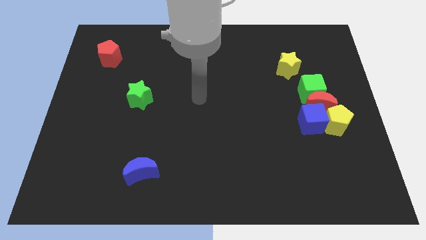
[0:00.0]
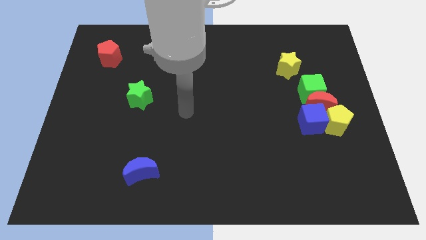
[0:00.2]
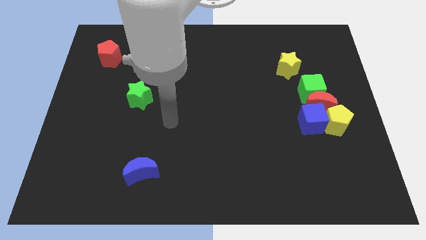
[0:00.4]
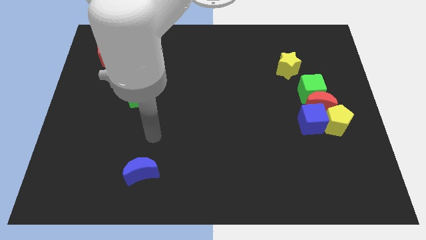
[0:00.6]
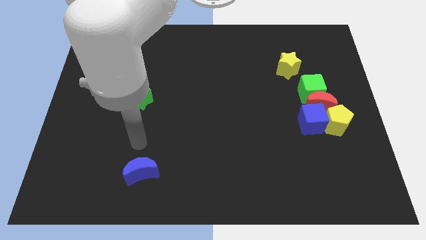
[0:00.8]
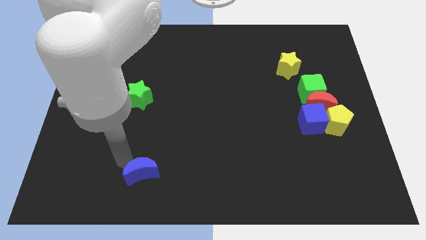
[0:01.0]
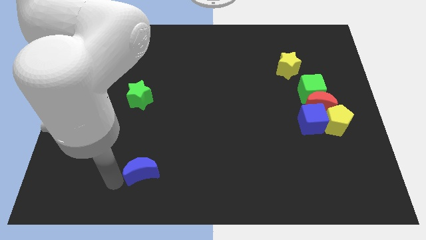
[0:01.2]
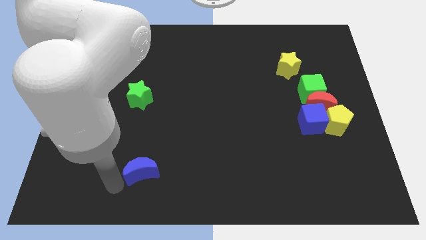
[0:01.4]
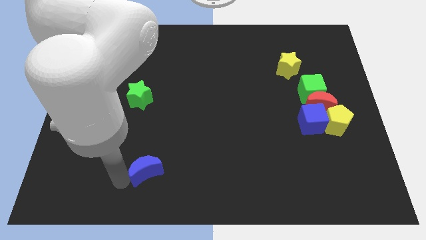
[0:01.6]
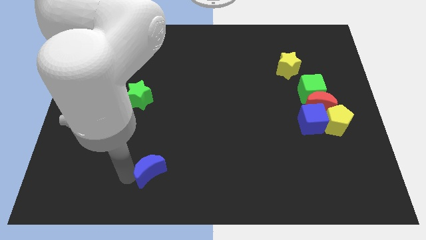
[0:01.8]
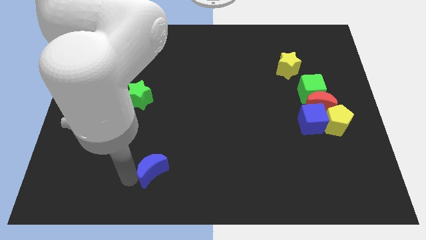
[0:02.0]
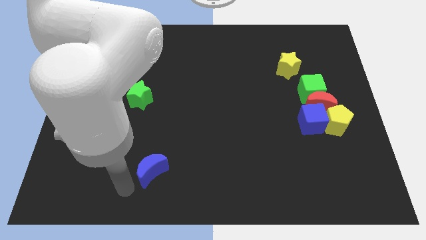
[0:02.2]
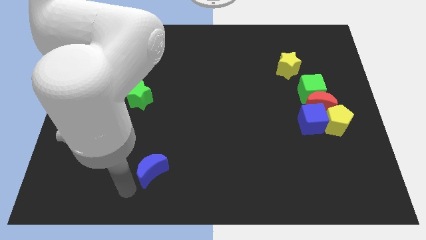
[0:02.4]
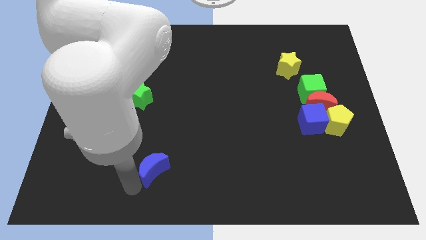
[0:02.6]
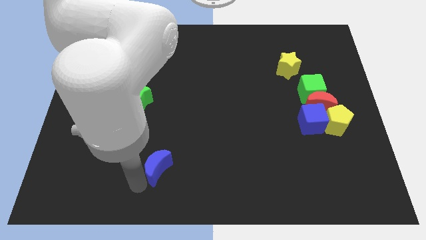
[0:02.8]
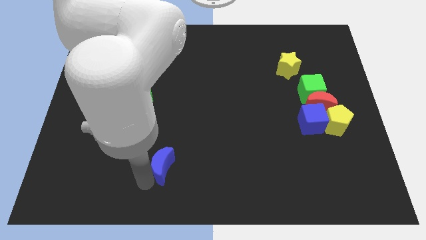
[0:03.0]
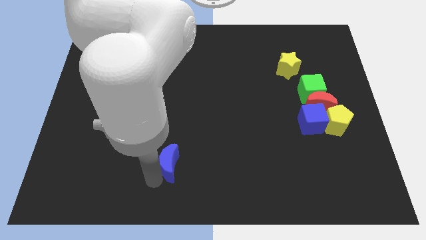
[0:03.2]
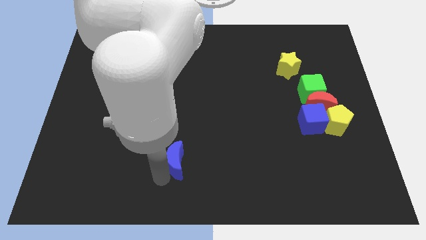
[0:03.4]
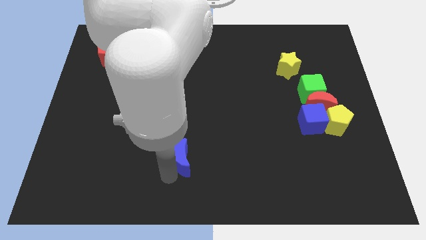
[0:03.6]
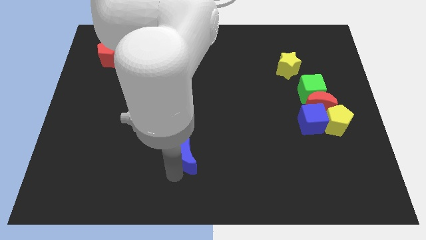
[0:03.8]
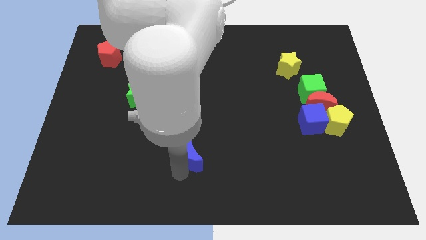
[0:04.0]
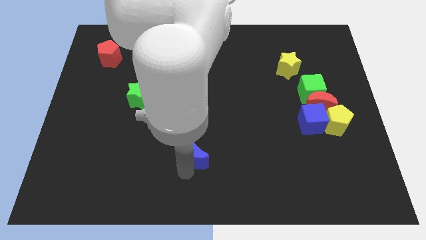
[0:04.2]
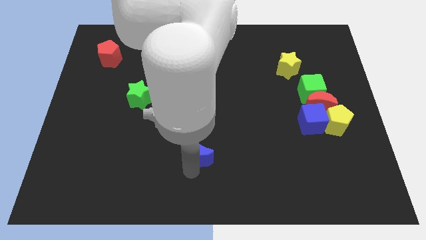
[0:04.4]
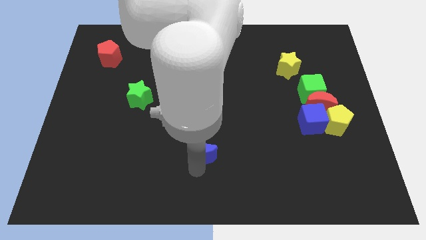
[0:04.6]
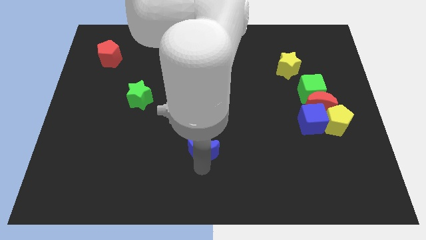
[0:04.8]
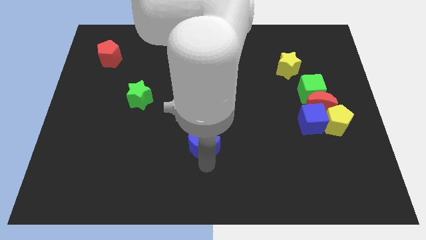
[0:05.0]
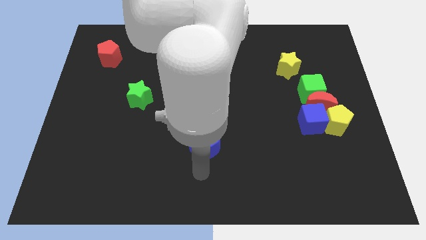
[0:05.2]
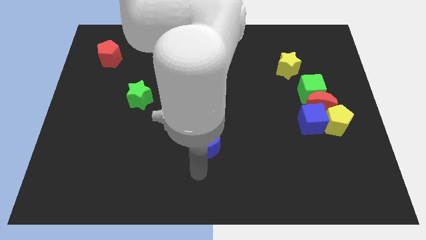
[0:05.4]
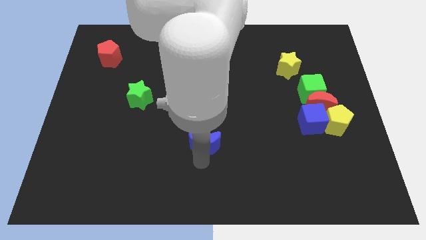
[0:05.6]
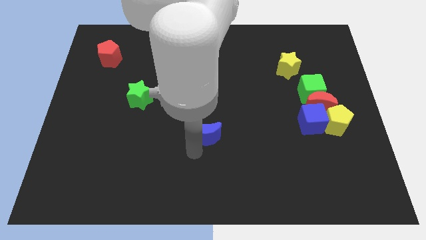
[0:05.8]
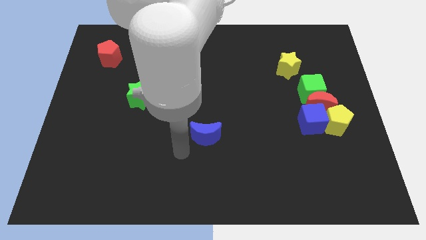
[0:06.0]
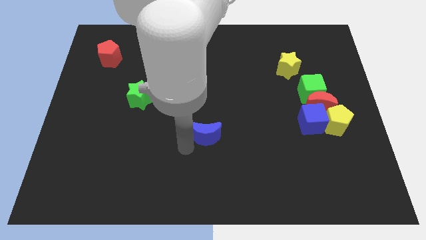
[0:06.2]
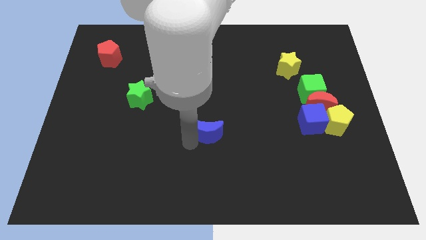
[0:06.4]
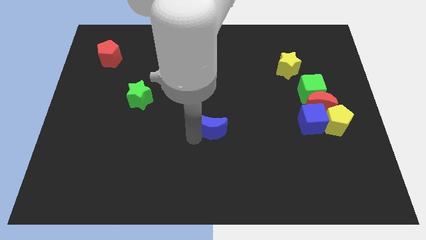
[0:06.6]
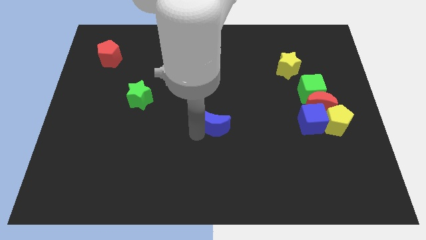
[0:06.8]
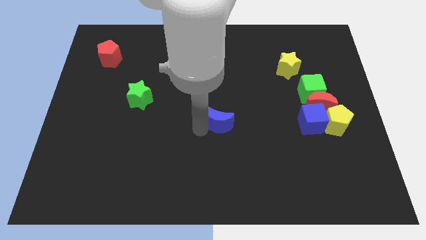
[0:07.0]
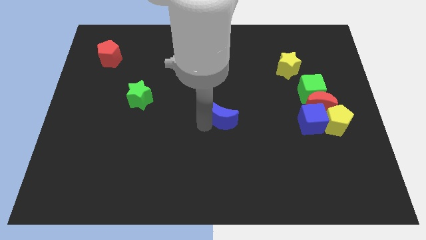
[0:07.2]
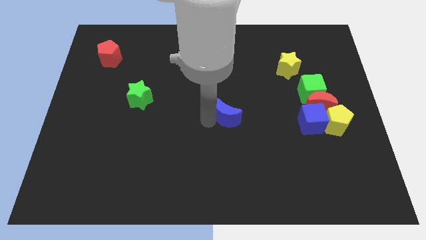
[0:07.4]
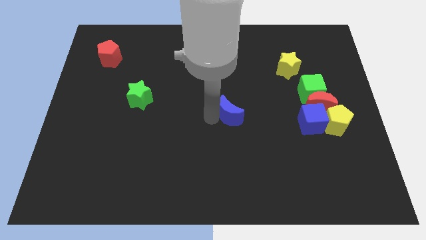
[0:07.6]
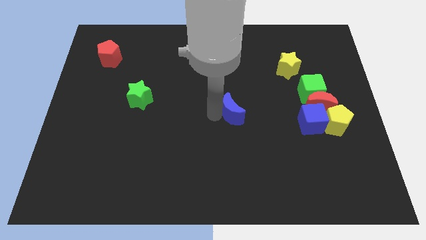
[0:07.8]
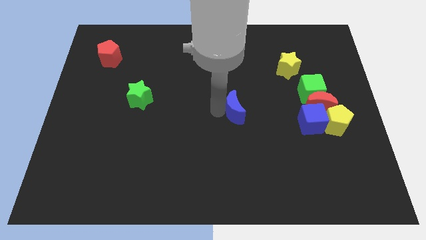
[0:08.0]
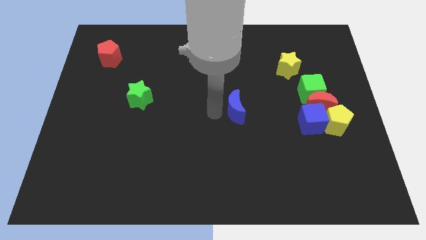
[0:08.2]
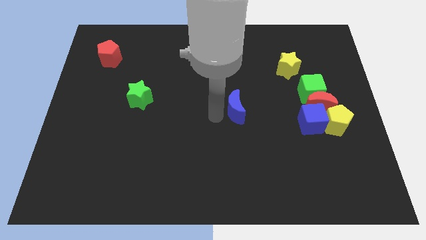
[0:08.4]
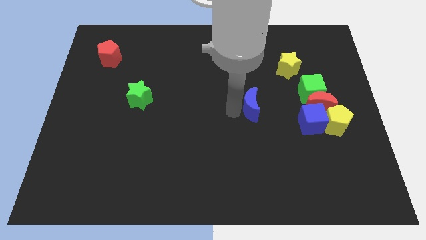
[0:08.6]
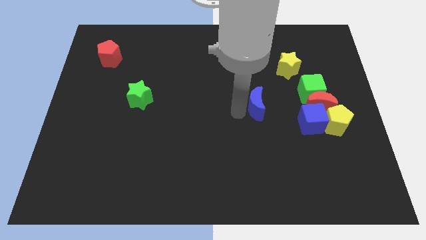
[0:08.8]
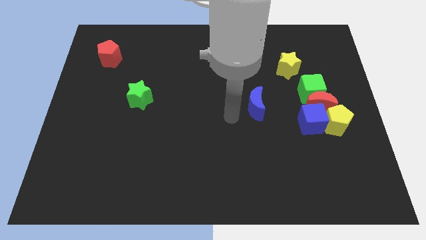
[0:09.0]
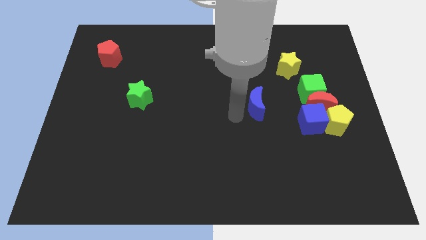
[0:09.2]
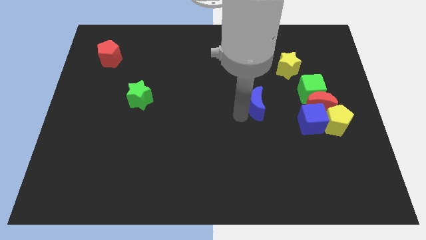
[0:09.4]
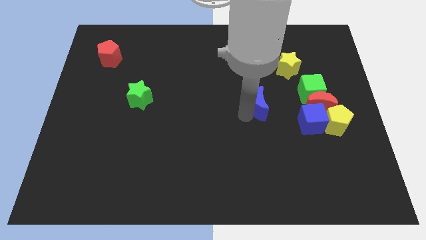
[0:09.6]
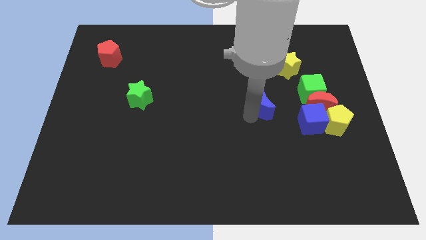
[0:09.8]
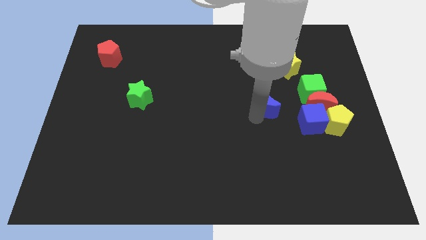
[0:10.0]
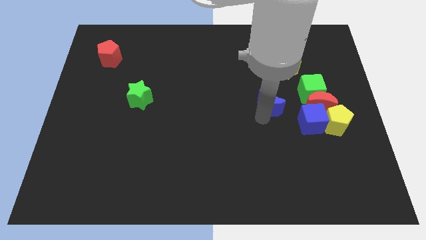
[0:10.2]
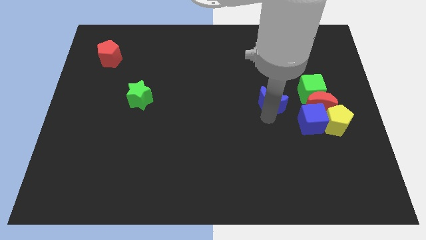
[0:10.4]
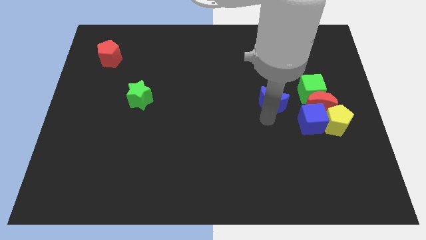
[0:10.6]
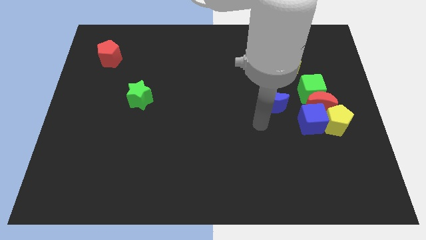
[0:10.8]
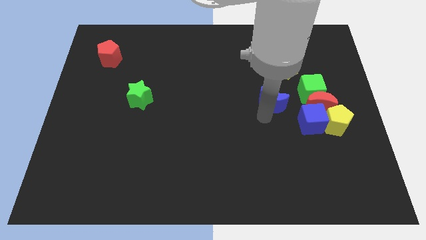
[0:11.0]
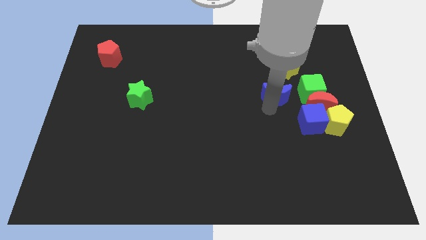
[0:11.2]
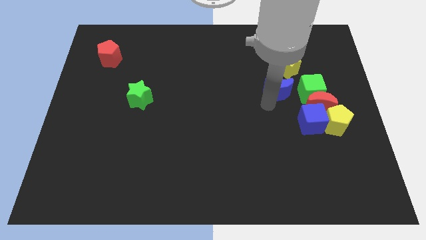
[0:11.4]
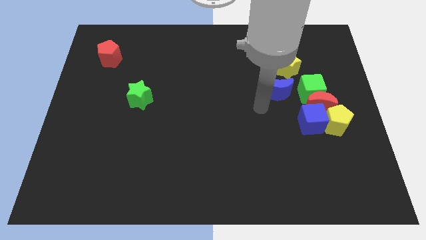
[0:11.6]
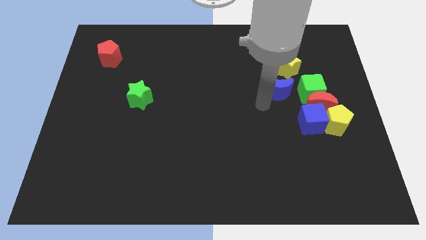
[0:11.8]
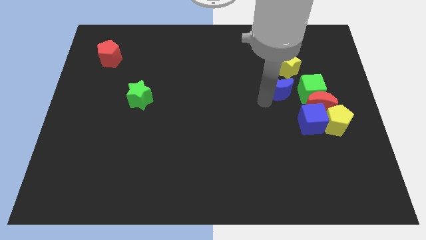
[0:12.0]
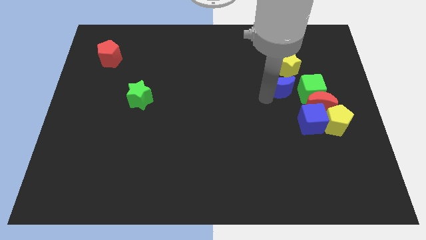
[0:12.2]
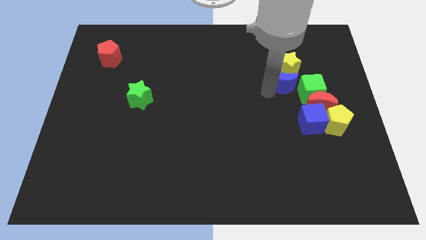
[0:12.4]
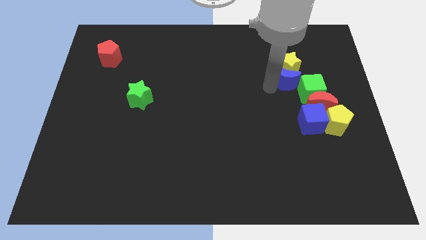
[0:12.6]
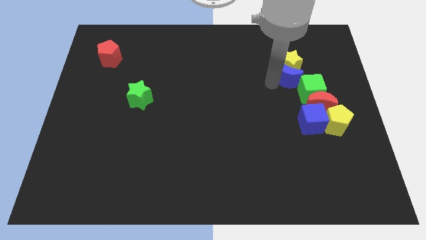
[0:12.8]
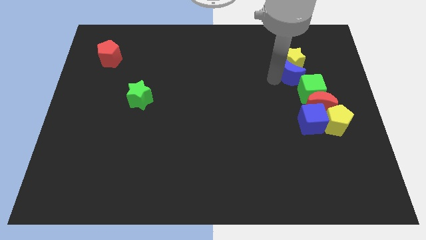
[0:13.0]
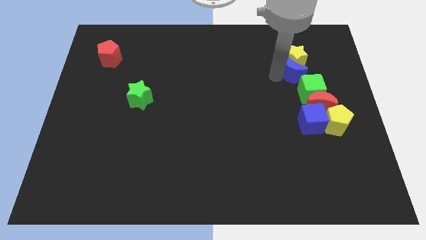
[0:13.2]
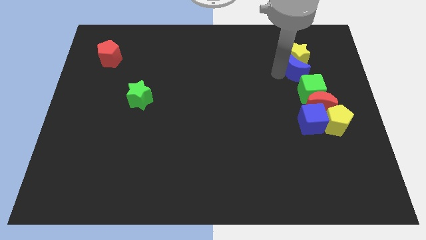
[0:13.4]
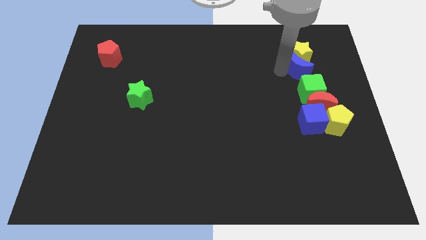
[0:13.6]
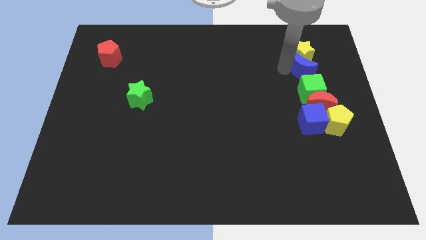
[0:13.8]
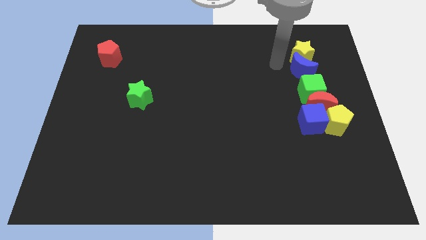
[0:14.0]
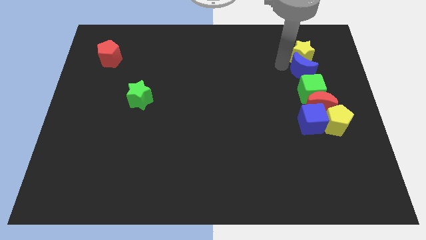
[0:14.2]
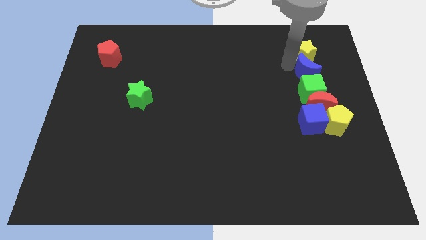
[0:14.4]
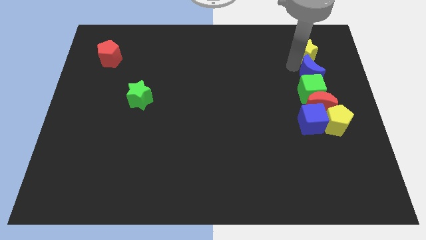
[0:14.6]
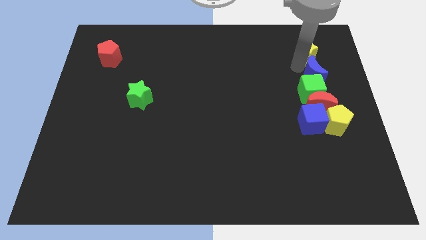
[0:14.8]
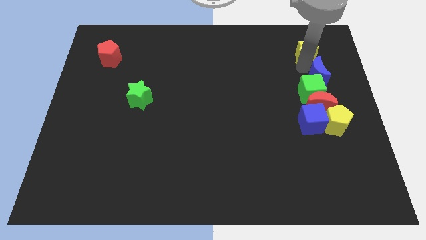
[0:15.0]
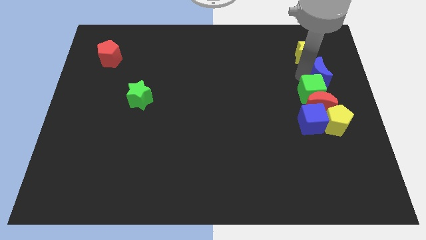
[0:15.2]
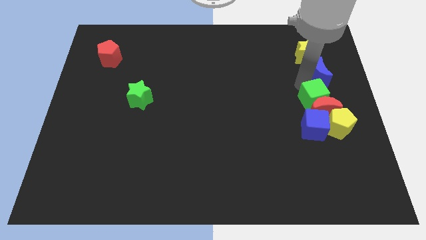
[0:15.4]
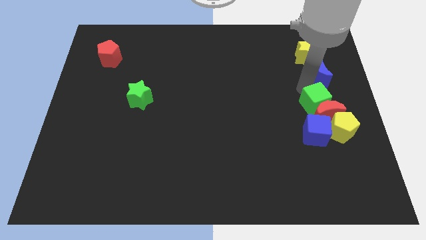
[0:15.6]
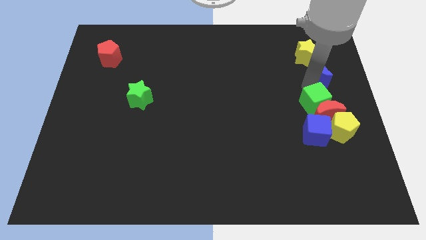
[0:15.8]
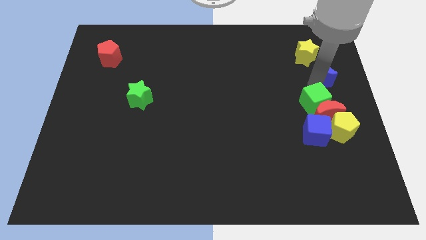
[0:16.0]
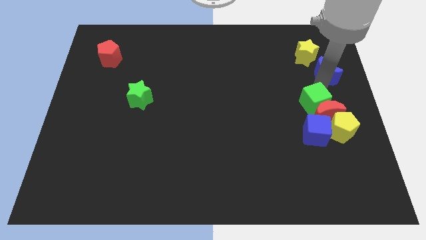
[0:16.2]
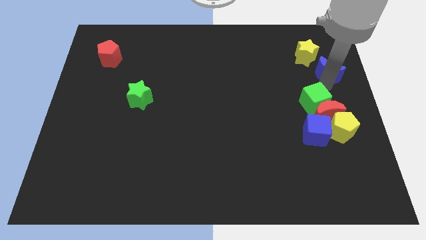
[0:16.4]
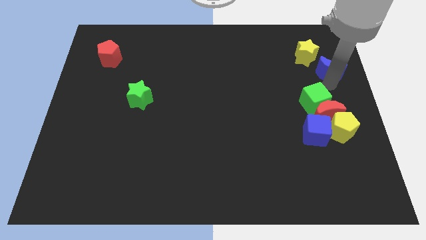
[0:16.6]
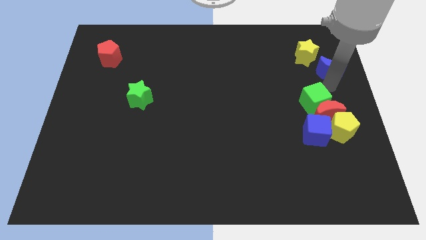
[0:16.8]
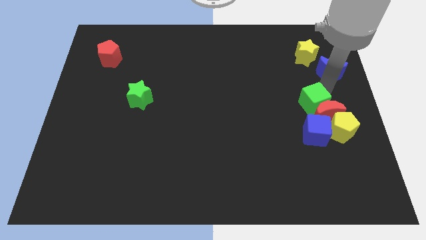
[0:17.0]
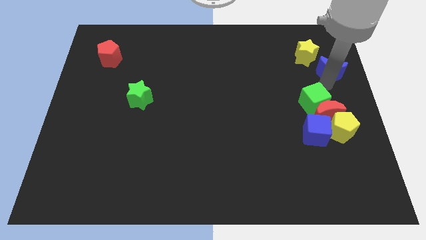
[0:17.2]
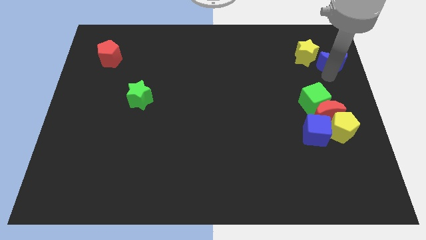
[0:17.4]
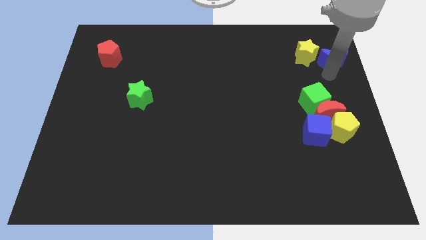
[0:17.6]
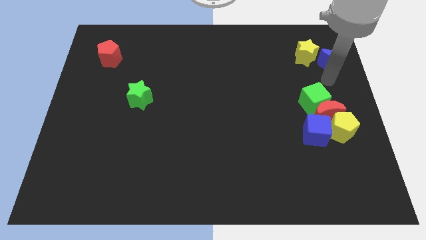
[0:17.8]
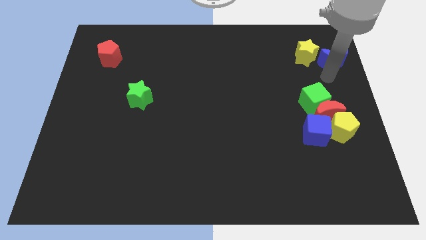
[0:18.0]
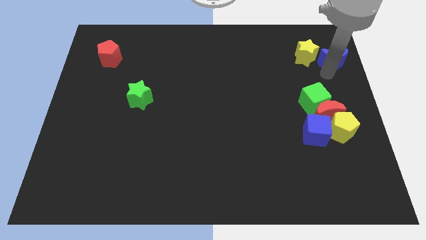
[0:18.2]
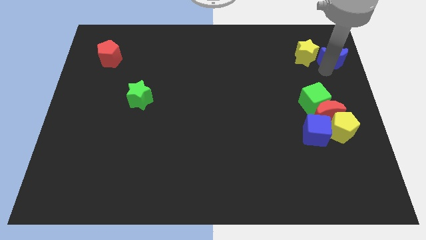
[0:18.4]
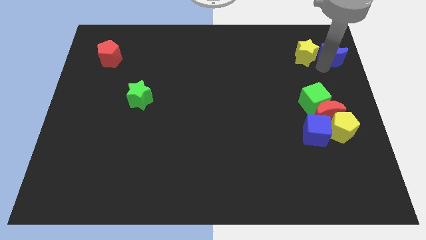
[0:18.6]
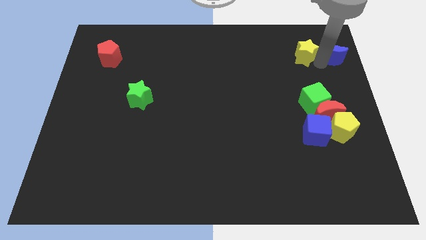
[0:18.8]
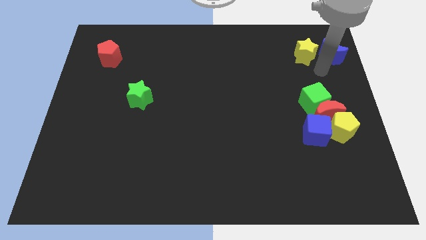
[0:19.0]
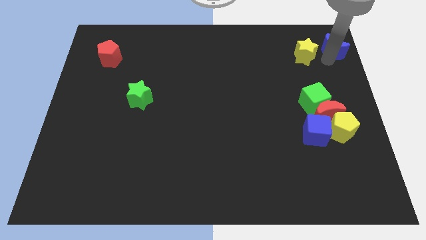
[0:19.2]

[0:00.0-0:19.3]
put the blue moon to the upper right corner
